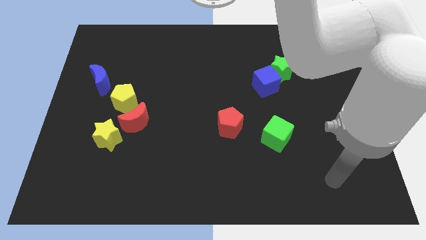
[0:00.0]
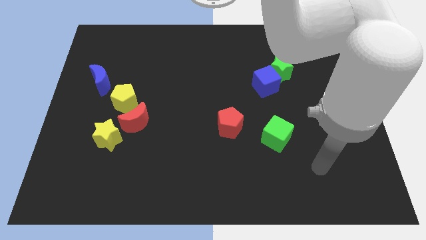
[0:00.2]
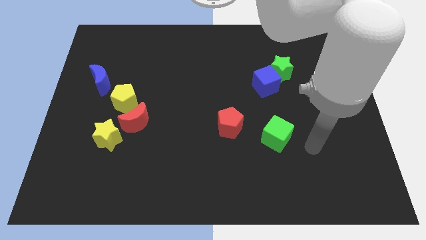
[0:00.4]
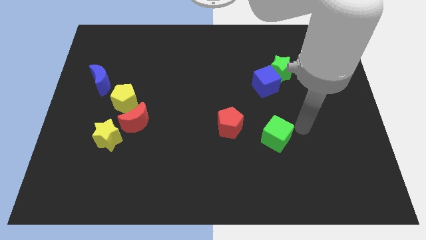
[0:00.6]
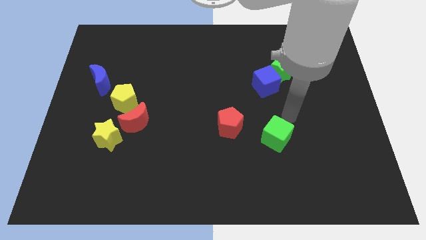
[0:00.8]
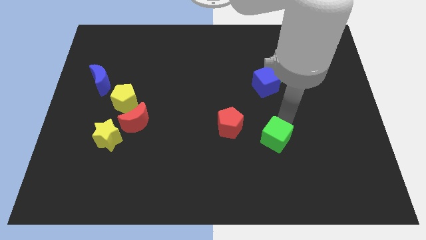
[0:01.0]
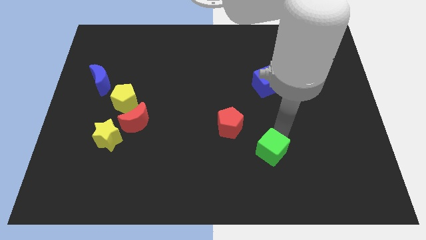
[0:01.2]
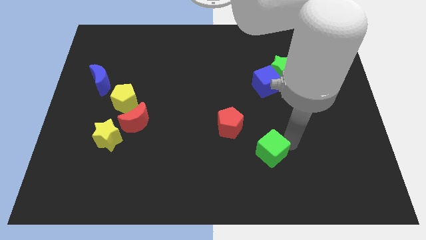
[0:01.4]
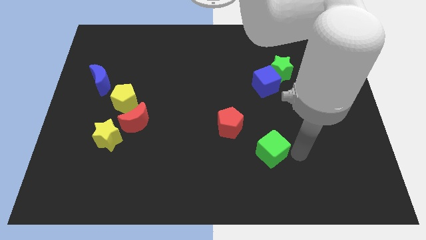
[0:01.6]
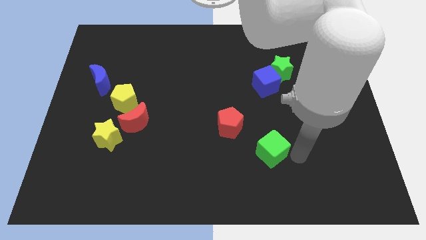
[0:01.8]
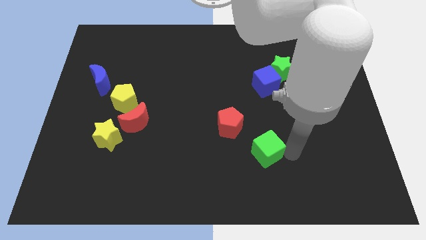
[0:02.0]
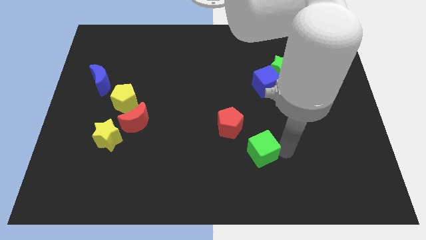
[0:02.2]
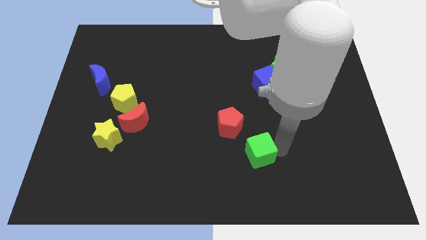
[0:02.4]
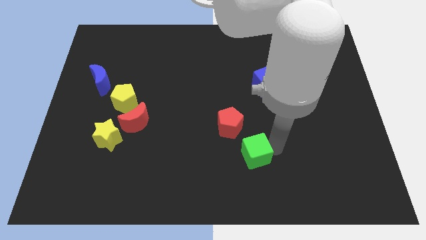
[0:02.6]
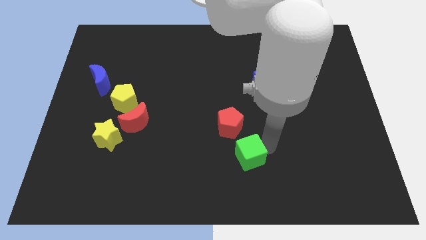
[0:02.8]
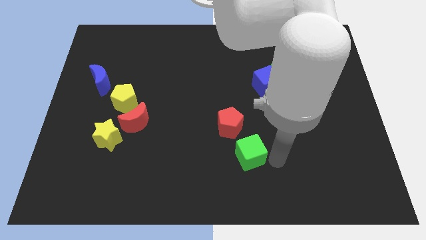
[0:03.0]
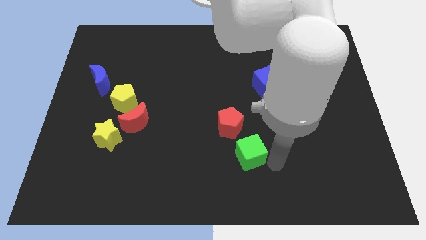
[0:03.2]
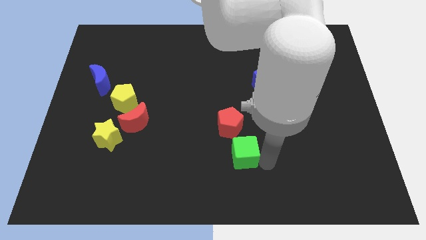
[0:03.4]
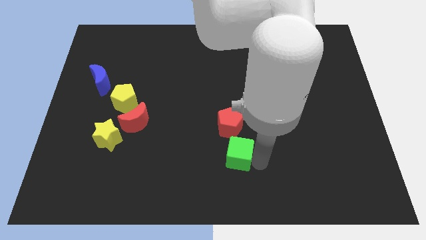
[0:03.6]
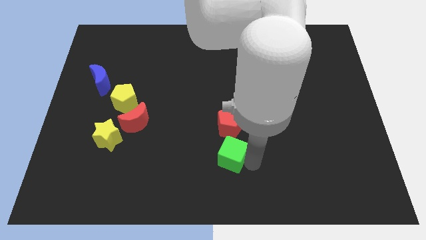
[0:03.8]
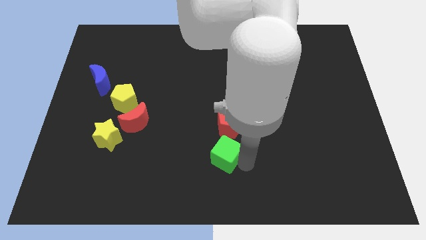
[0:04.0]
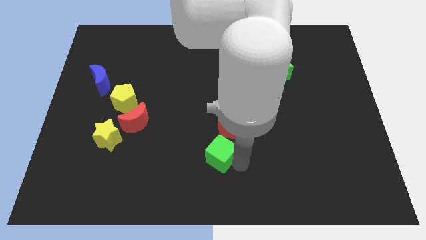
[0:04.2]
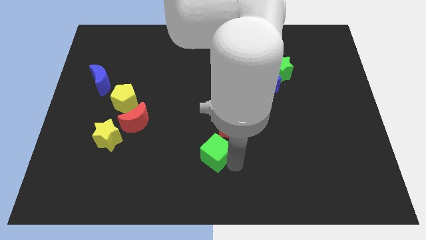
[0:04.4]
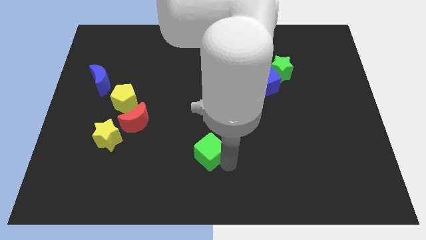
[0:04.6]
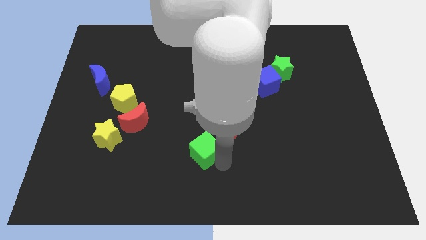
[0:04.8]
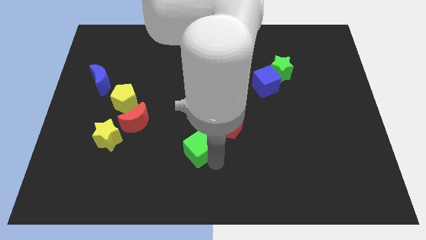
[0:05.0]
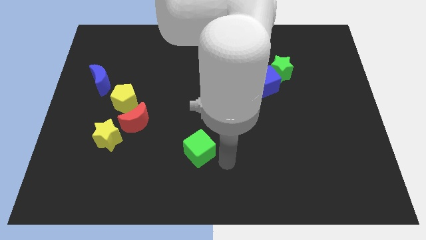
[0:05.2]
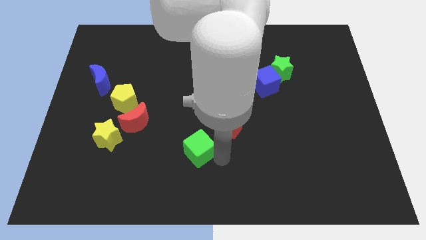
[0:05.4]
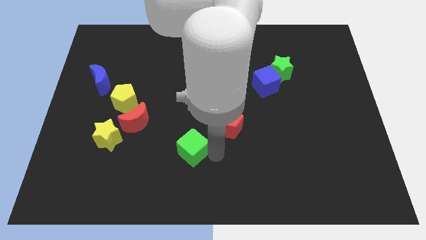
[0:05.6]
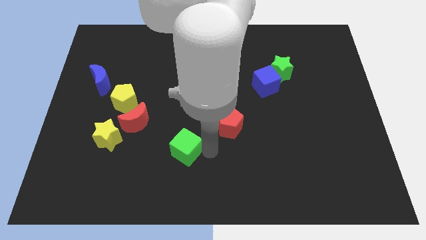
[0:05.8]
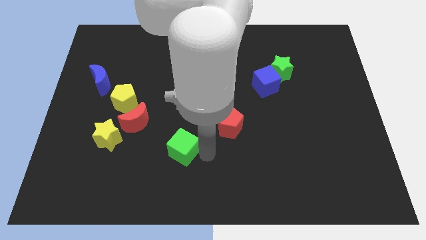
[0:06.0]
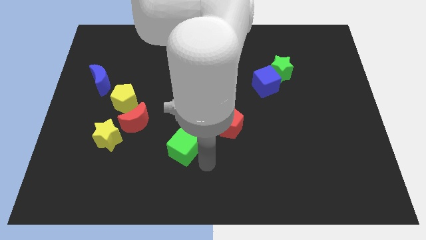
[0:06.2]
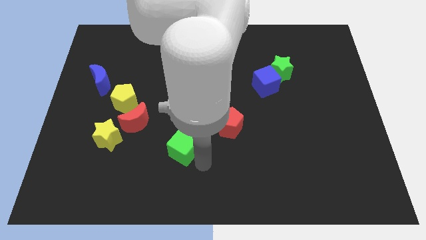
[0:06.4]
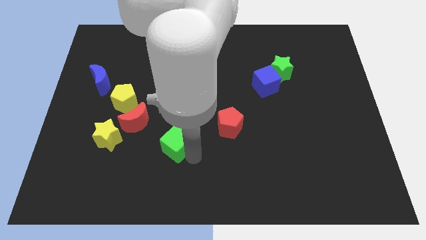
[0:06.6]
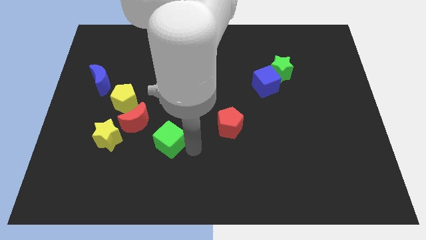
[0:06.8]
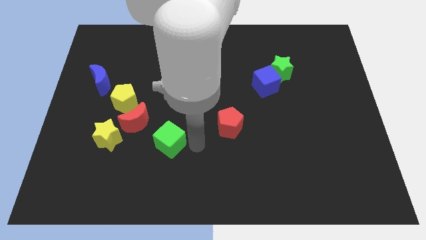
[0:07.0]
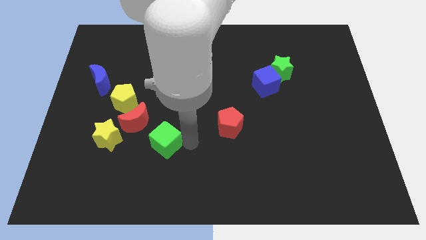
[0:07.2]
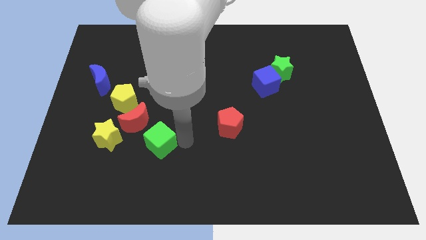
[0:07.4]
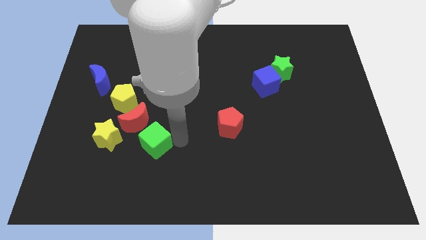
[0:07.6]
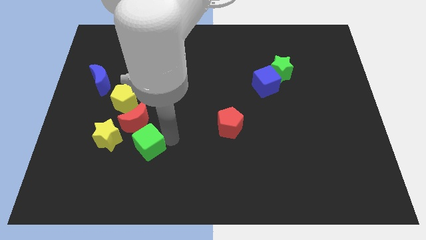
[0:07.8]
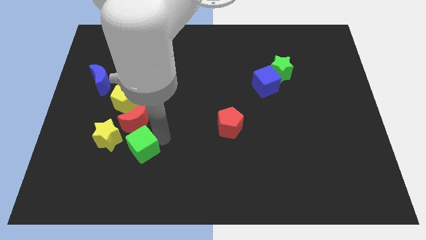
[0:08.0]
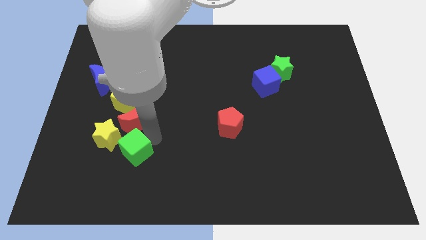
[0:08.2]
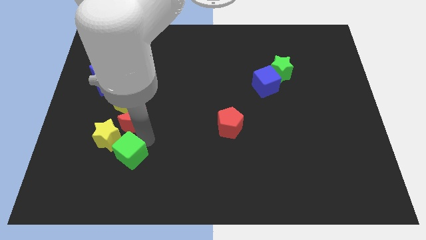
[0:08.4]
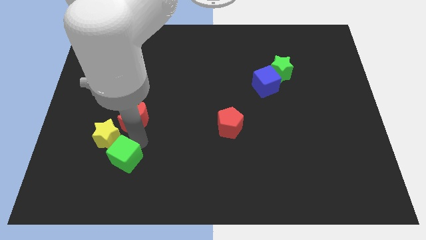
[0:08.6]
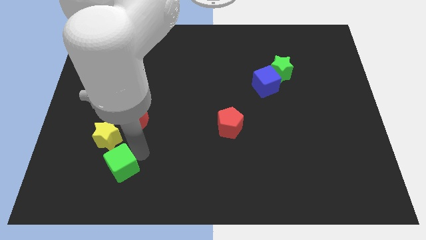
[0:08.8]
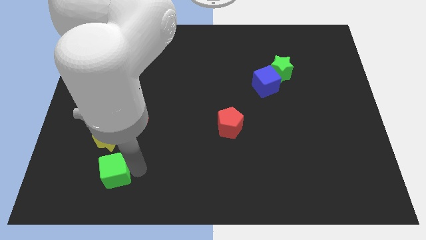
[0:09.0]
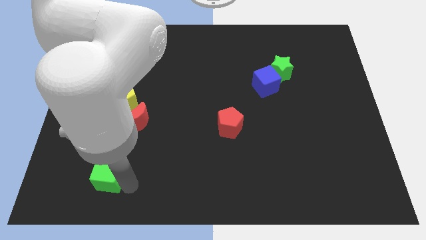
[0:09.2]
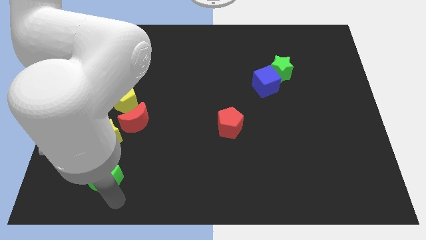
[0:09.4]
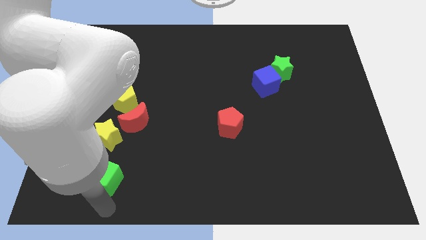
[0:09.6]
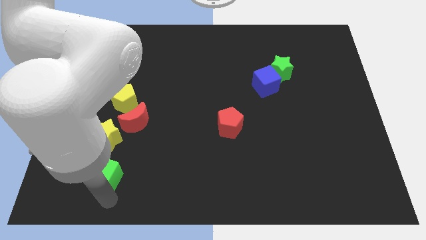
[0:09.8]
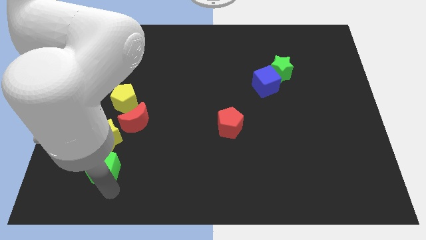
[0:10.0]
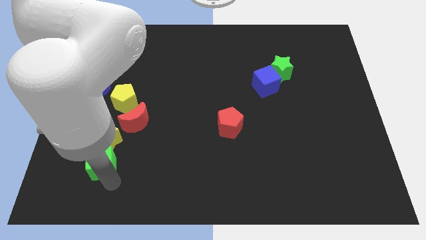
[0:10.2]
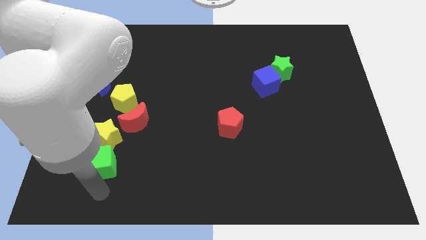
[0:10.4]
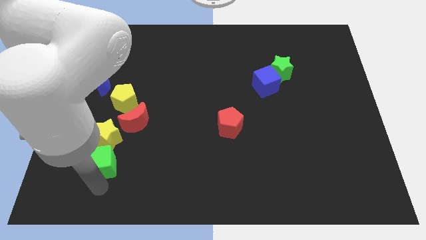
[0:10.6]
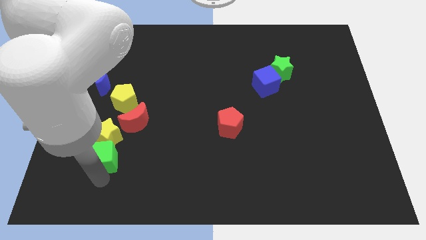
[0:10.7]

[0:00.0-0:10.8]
put the green cube towards the yellow star
